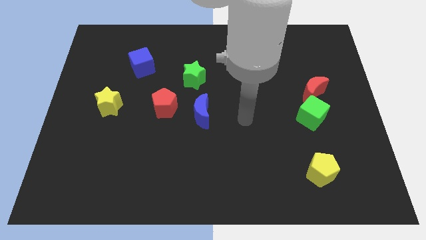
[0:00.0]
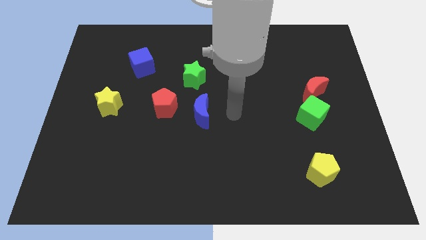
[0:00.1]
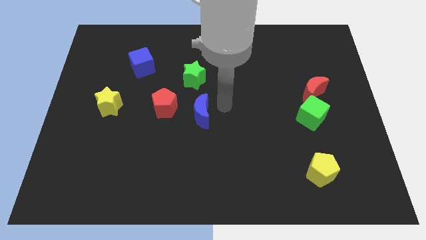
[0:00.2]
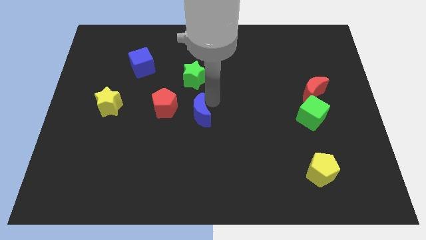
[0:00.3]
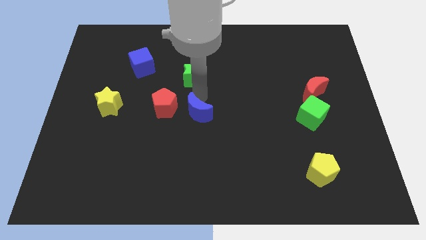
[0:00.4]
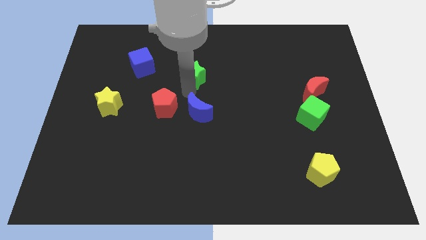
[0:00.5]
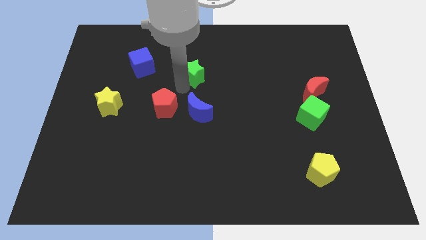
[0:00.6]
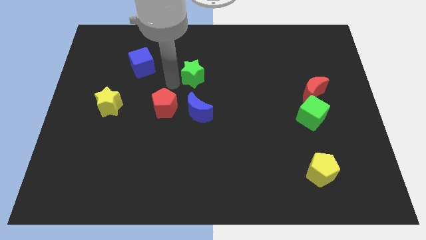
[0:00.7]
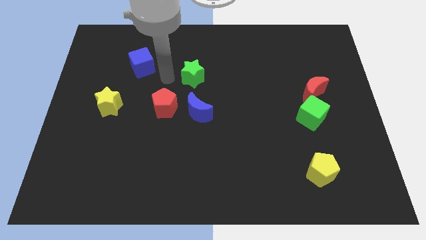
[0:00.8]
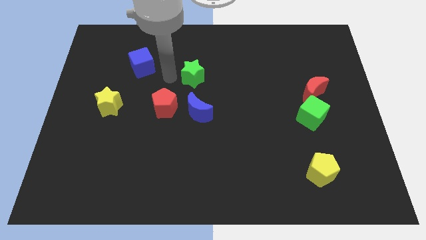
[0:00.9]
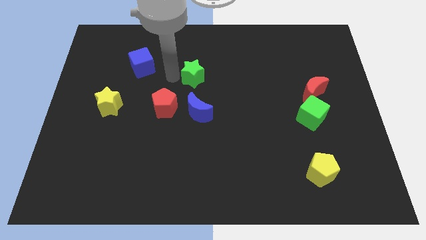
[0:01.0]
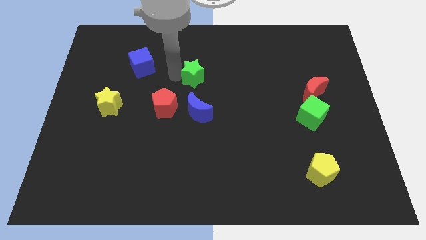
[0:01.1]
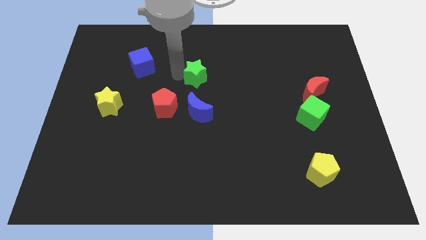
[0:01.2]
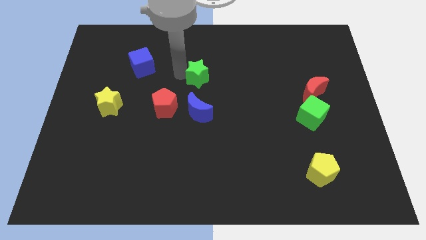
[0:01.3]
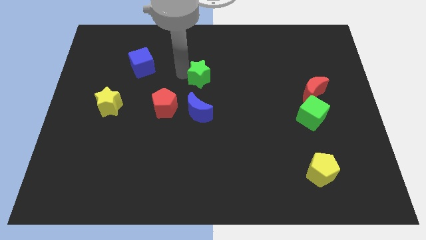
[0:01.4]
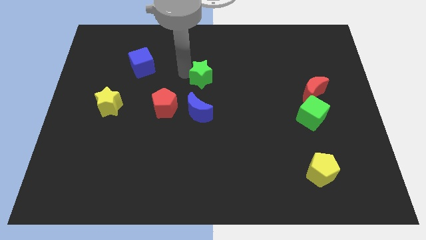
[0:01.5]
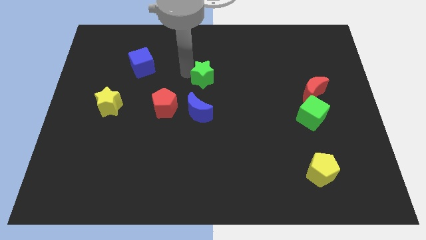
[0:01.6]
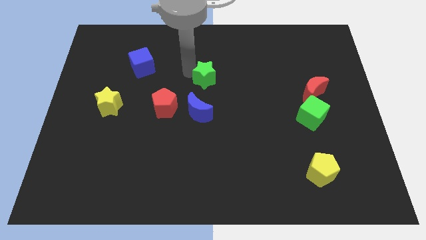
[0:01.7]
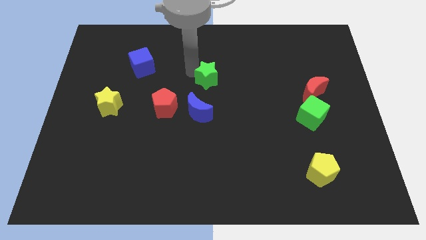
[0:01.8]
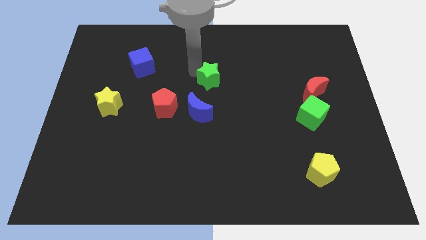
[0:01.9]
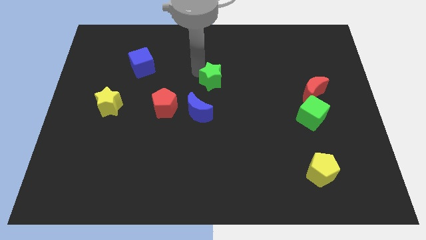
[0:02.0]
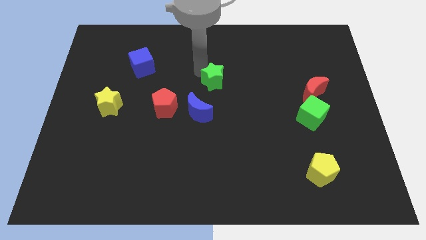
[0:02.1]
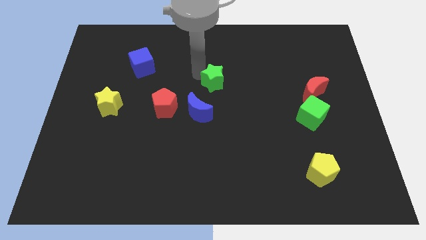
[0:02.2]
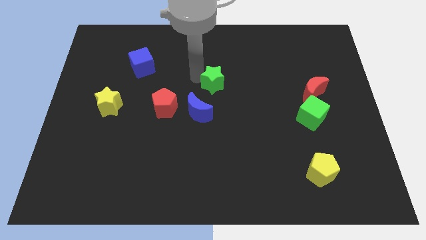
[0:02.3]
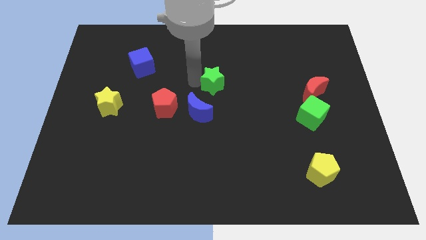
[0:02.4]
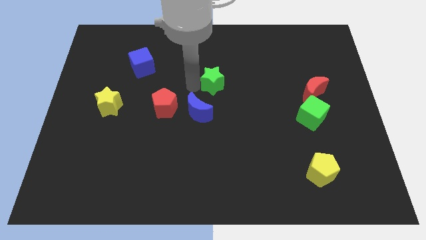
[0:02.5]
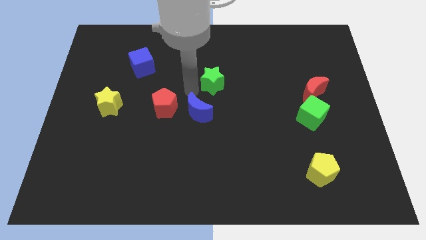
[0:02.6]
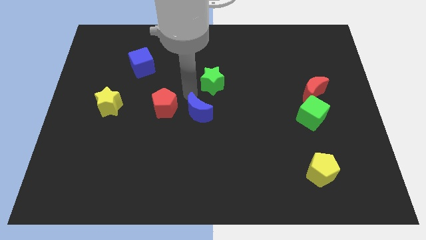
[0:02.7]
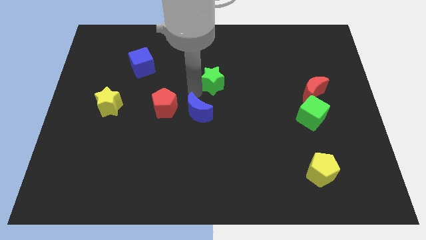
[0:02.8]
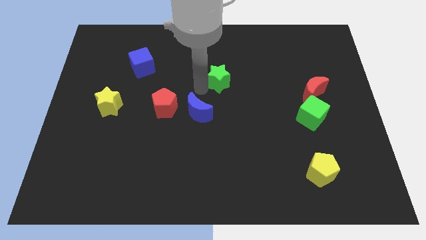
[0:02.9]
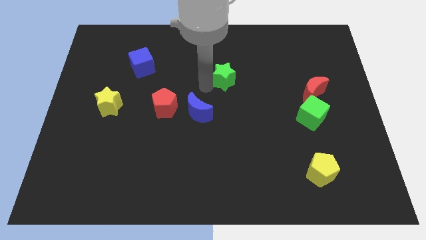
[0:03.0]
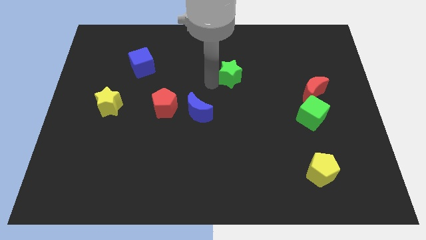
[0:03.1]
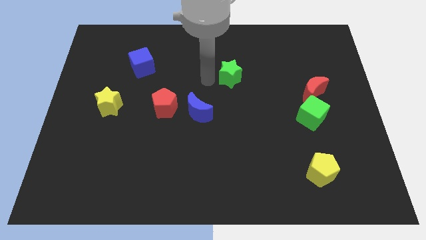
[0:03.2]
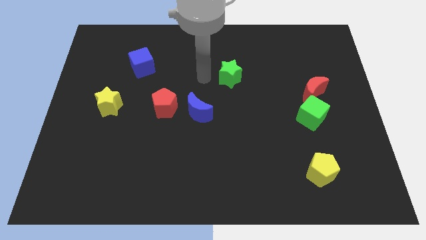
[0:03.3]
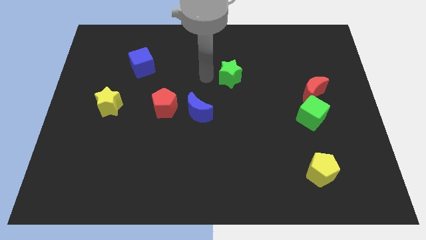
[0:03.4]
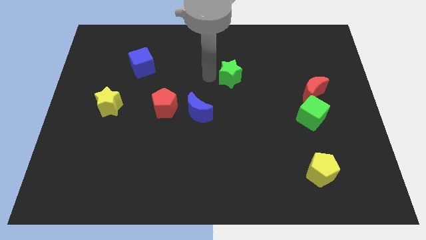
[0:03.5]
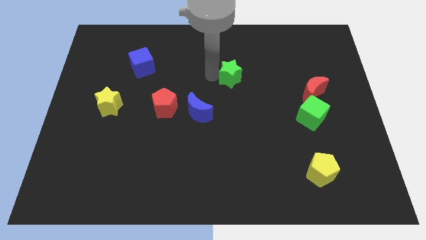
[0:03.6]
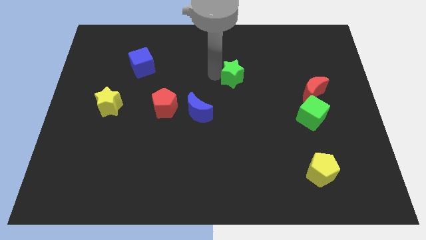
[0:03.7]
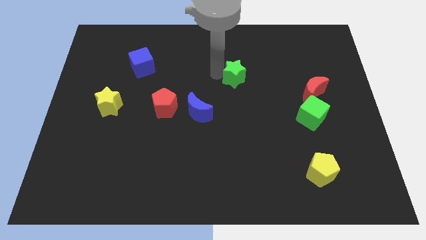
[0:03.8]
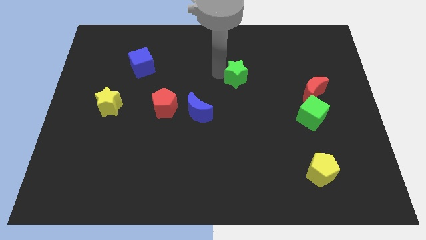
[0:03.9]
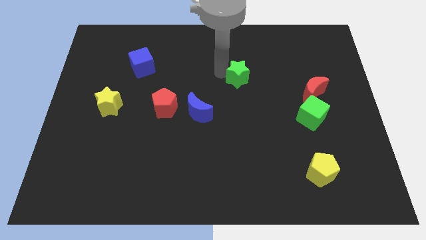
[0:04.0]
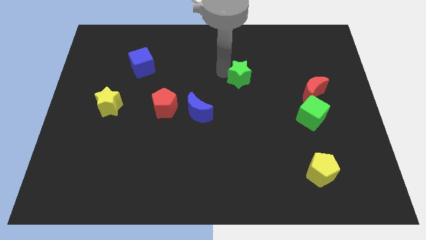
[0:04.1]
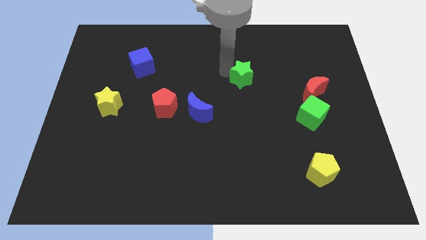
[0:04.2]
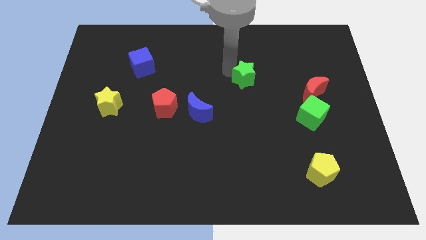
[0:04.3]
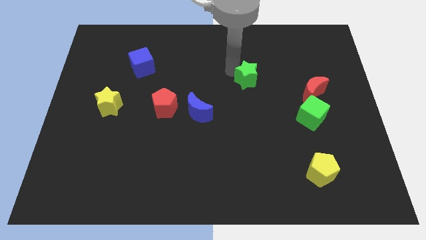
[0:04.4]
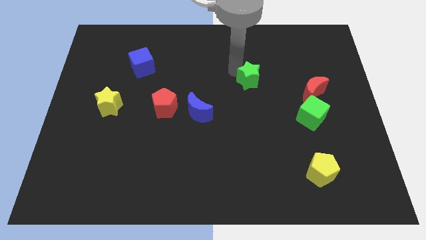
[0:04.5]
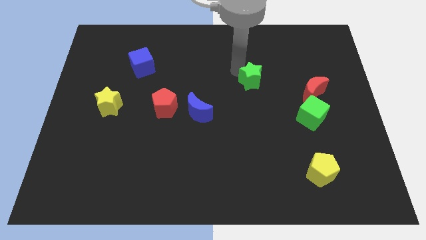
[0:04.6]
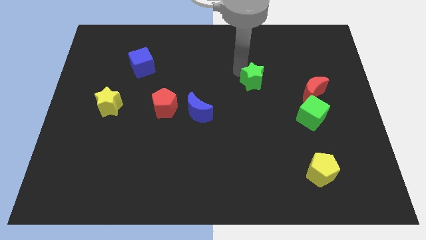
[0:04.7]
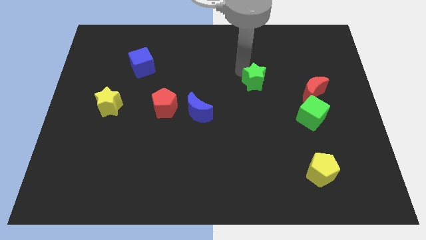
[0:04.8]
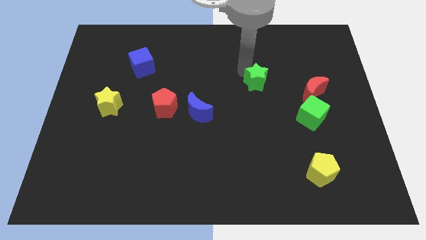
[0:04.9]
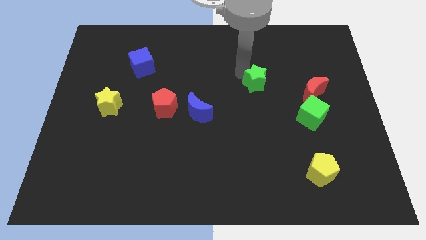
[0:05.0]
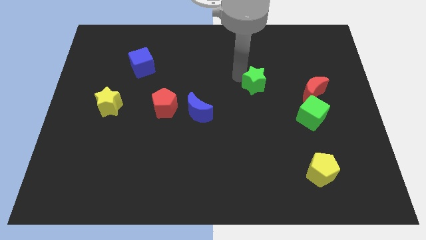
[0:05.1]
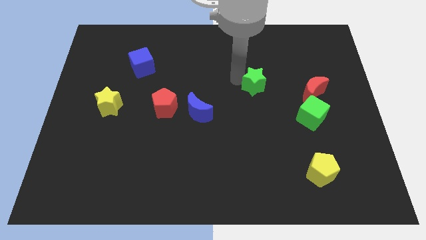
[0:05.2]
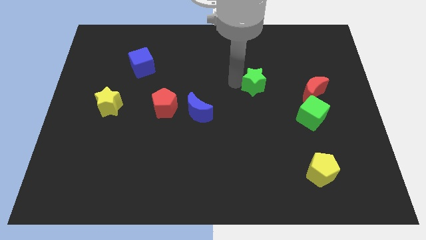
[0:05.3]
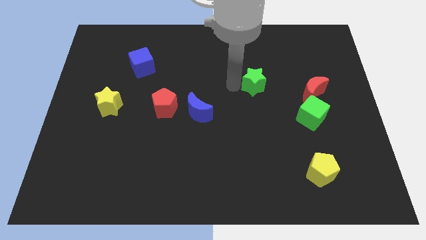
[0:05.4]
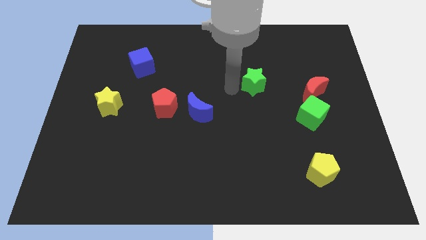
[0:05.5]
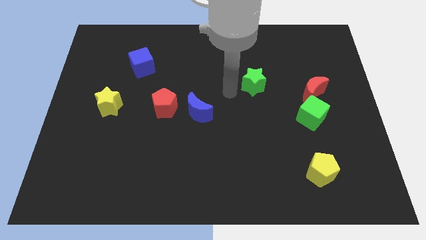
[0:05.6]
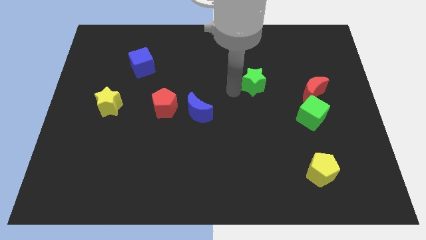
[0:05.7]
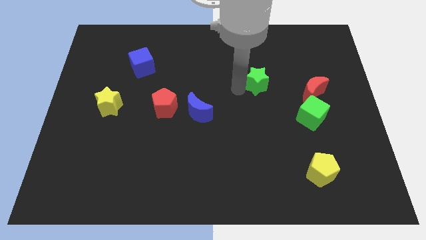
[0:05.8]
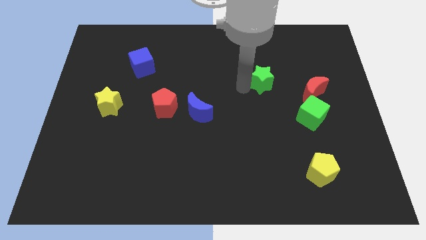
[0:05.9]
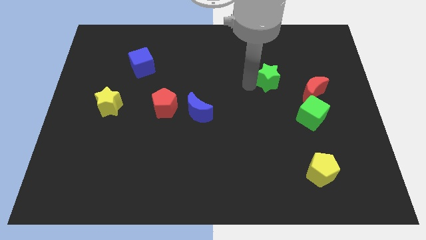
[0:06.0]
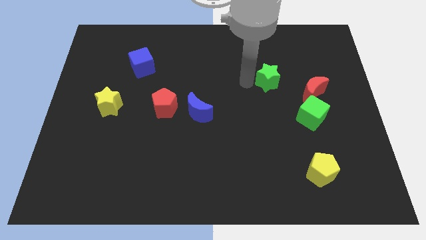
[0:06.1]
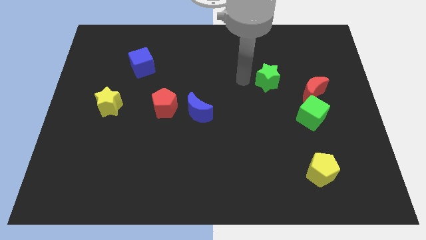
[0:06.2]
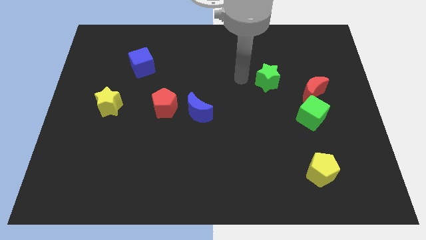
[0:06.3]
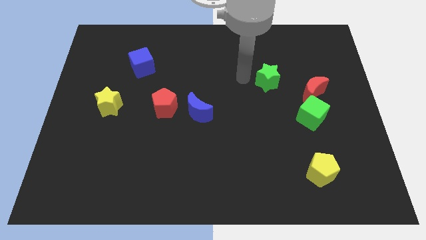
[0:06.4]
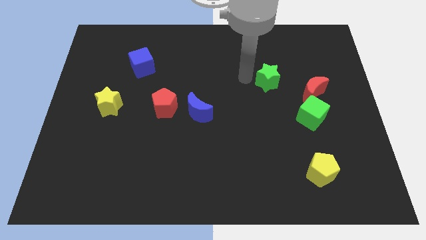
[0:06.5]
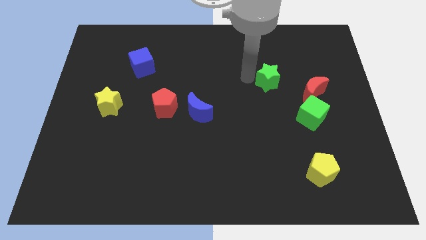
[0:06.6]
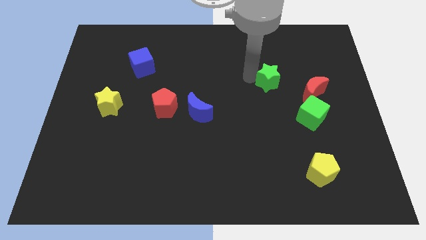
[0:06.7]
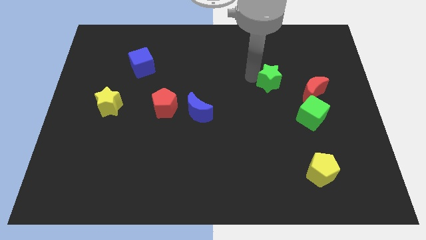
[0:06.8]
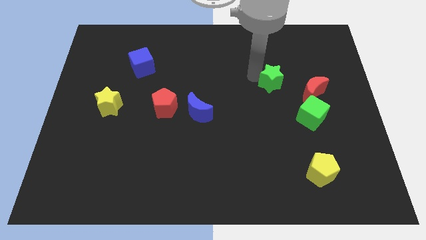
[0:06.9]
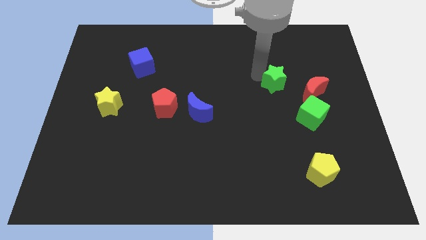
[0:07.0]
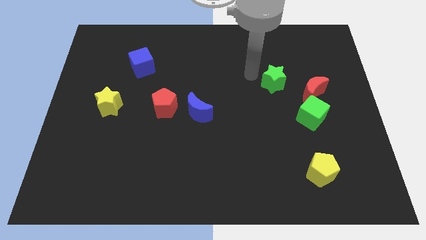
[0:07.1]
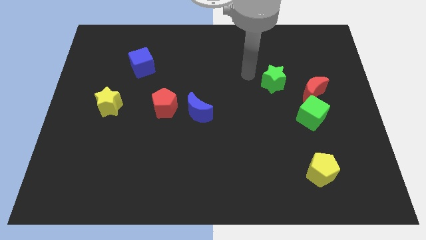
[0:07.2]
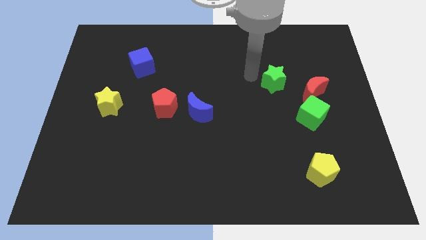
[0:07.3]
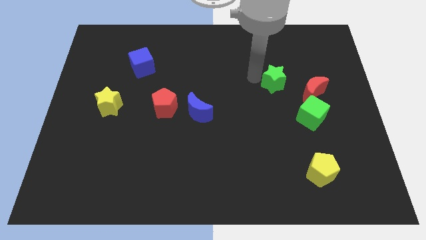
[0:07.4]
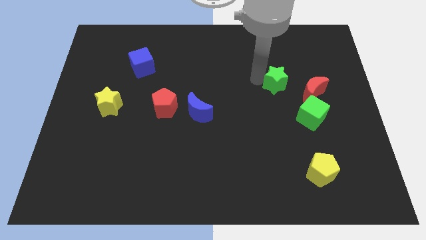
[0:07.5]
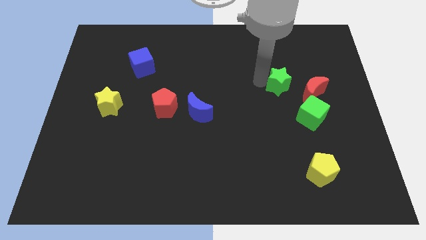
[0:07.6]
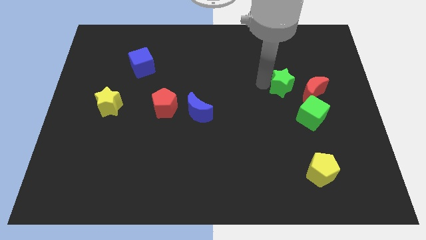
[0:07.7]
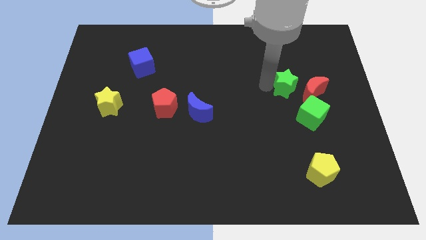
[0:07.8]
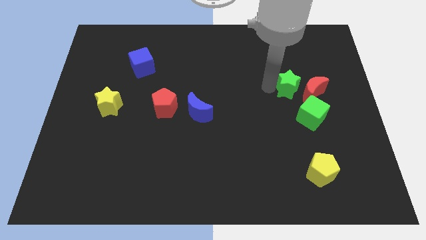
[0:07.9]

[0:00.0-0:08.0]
push the green star next to the red moon
